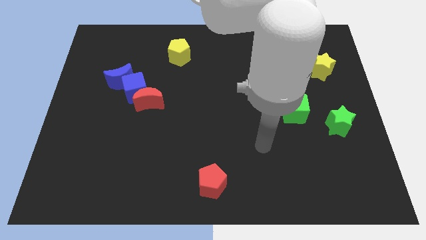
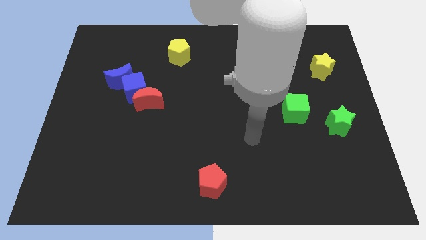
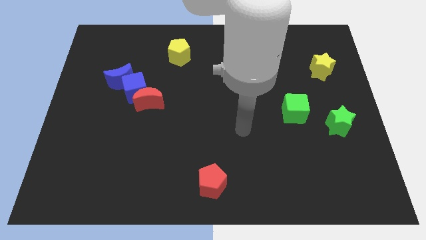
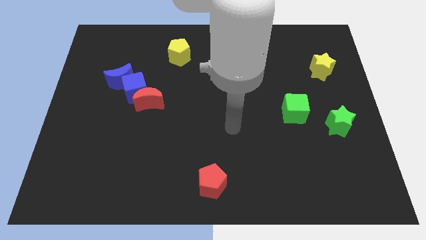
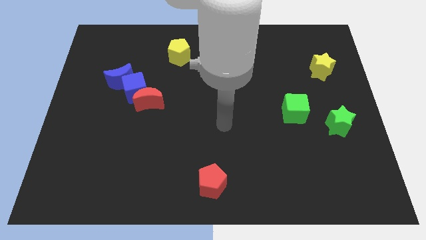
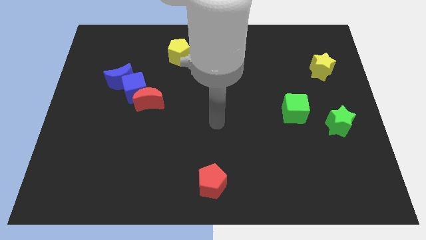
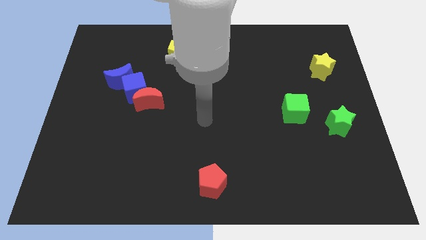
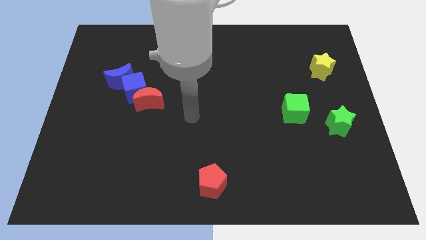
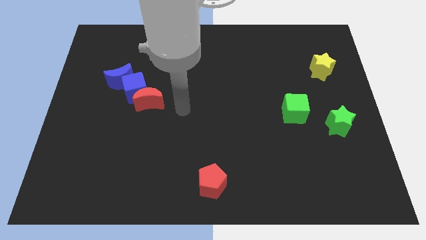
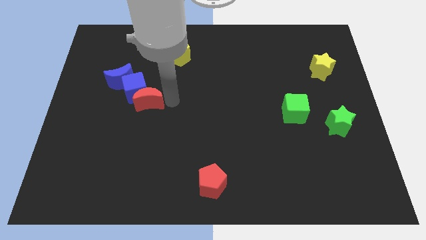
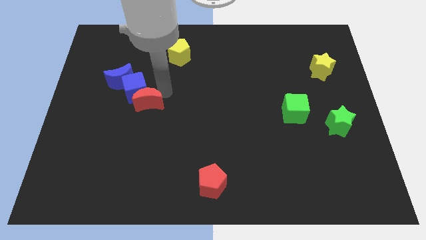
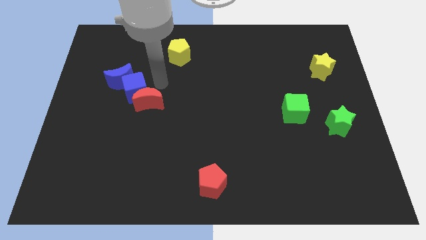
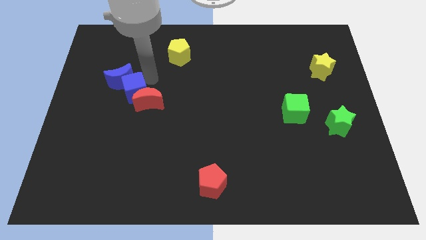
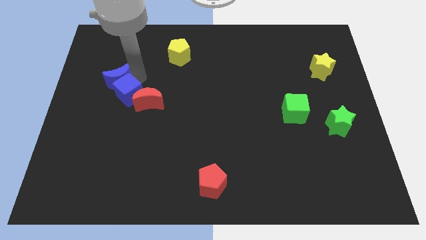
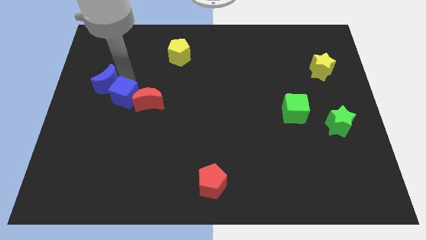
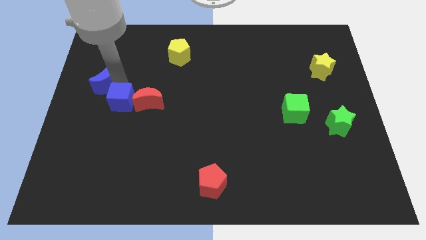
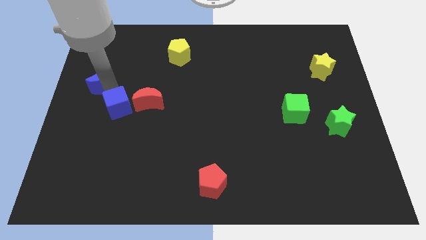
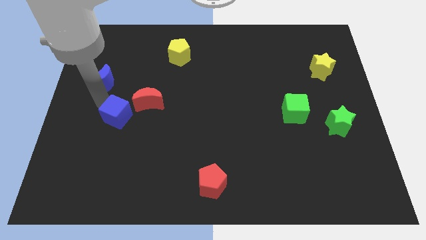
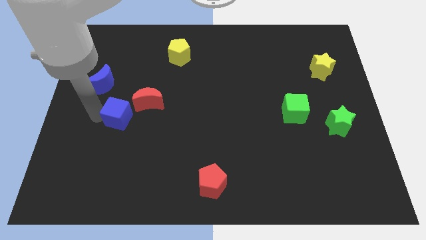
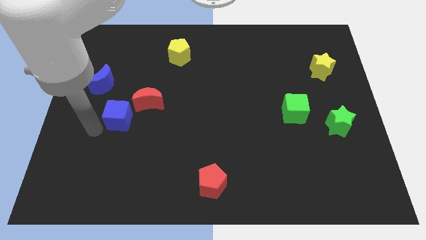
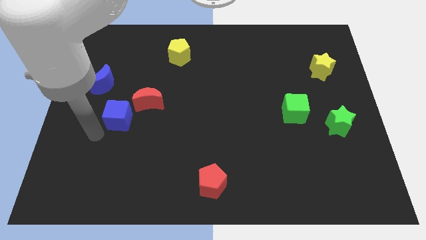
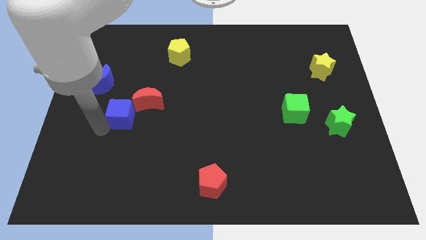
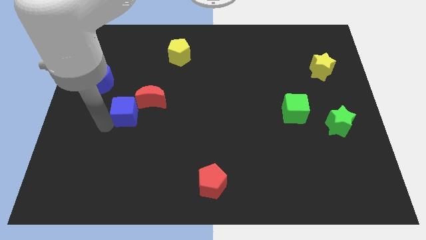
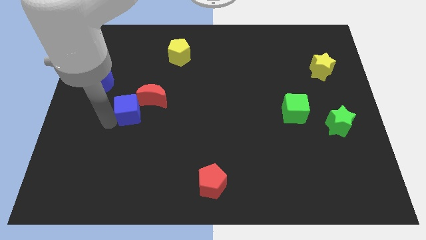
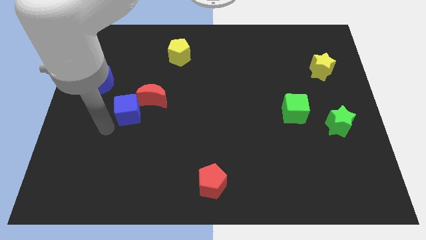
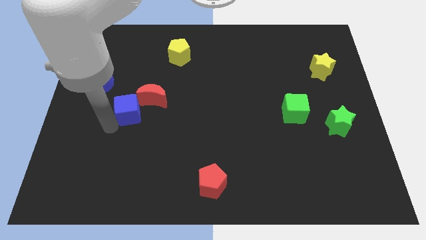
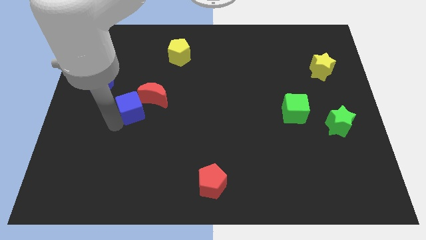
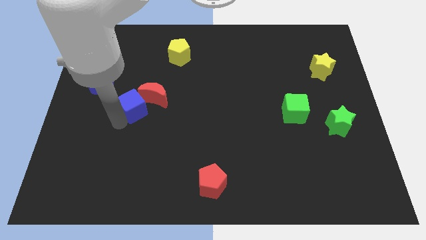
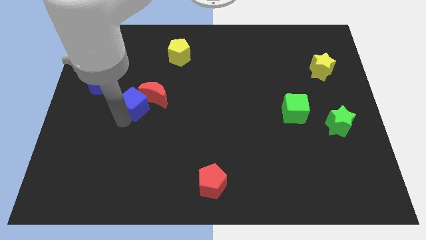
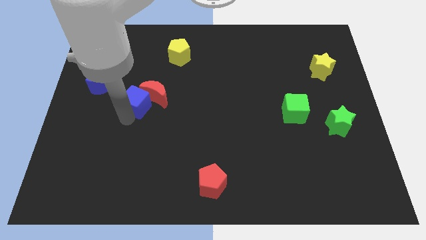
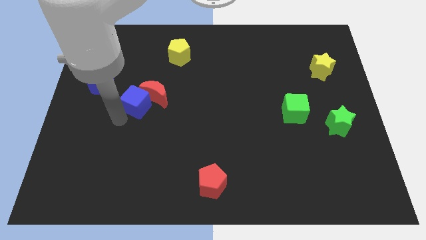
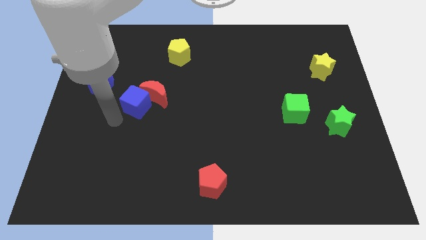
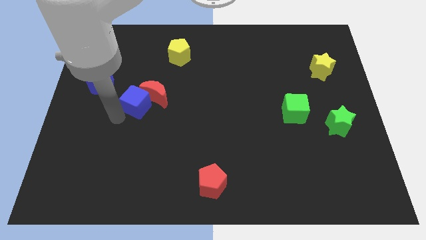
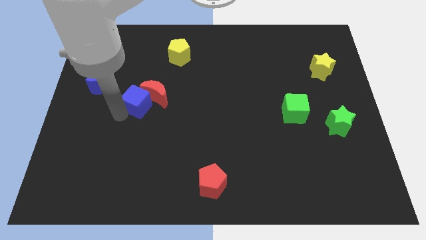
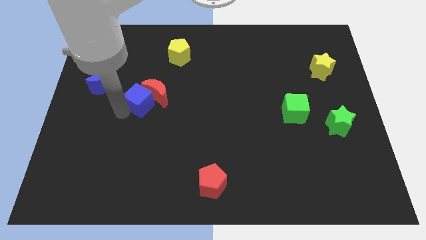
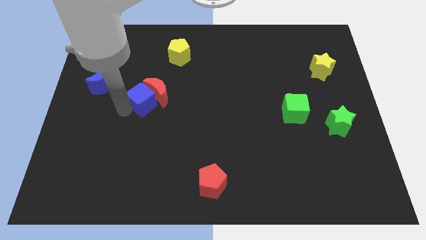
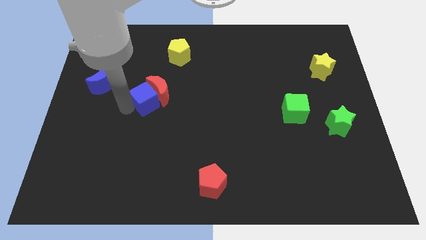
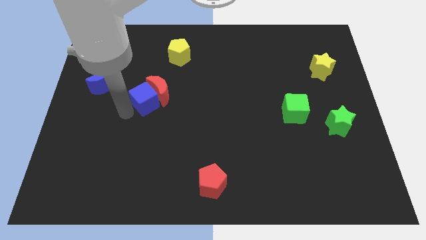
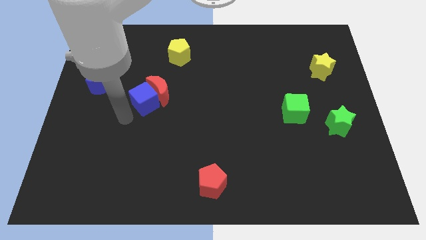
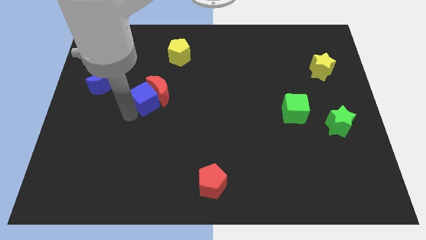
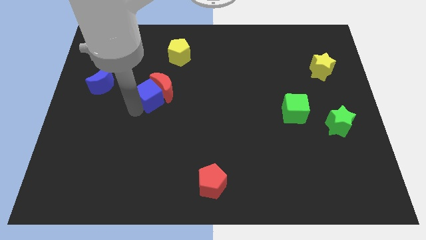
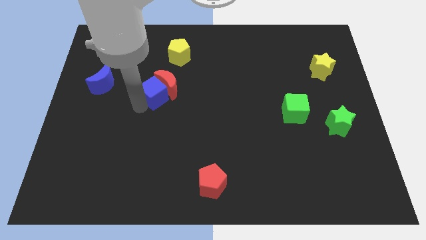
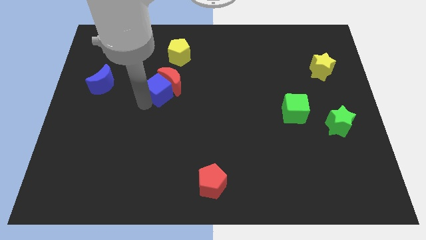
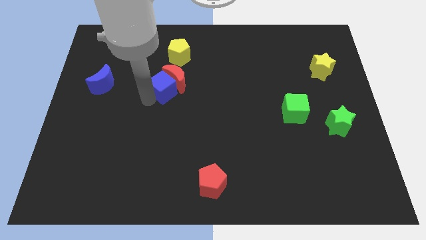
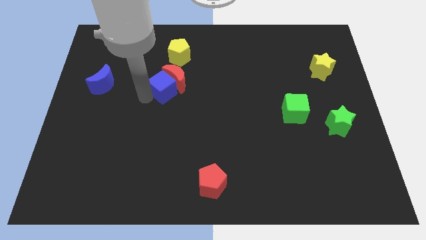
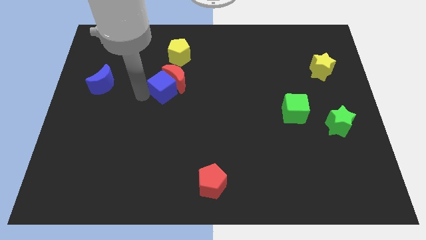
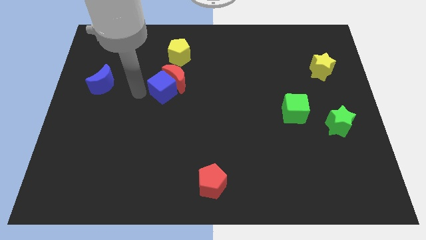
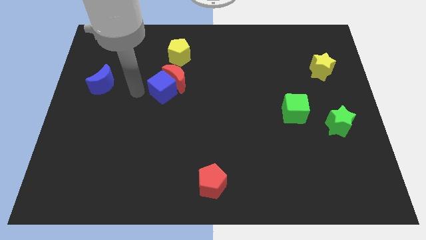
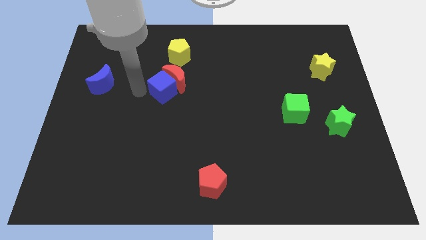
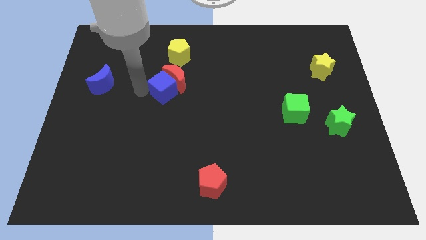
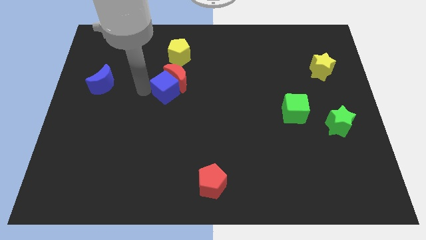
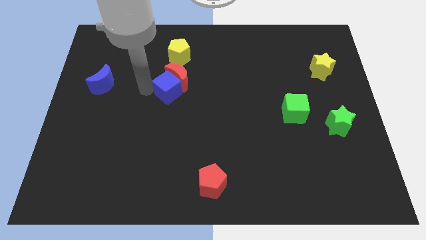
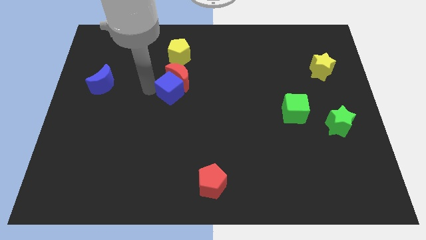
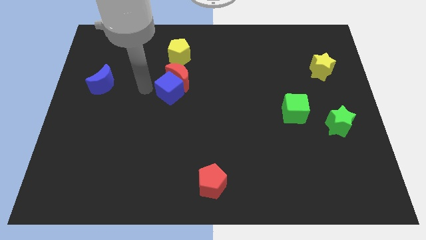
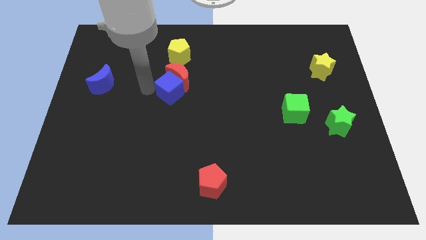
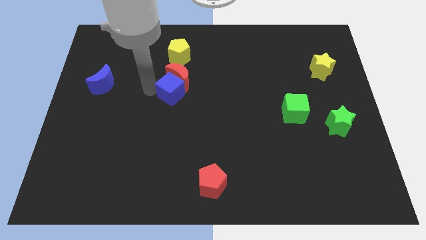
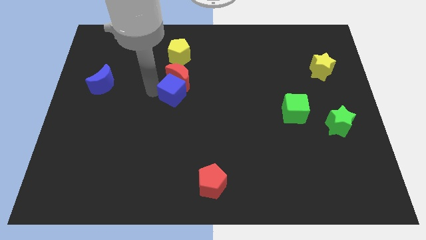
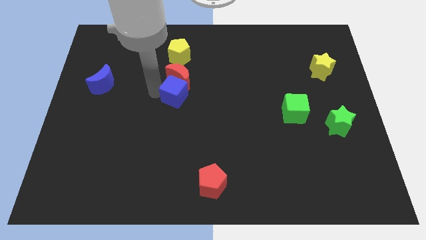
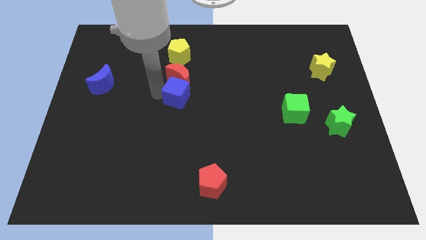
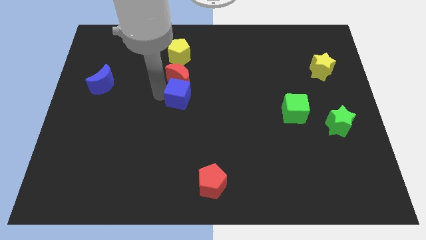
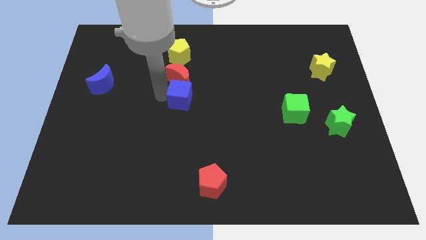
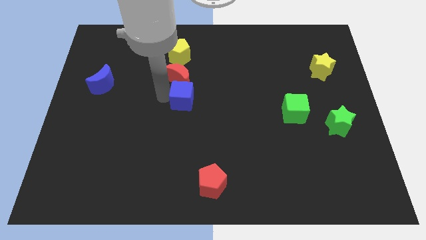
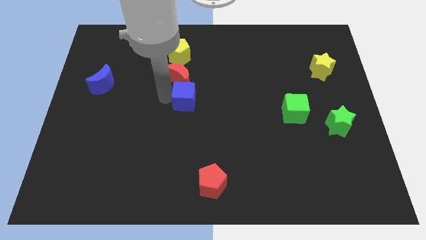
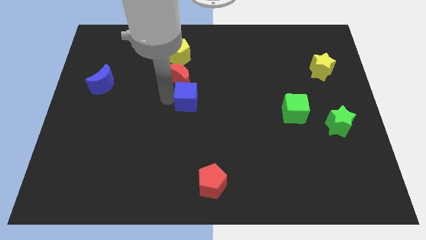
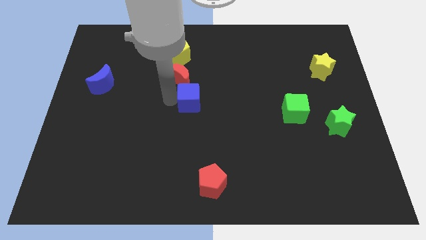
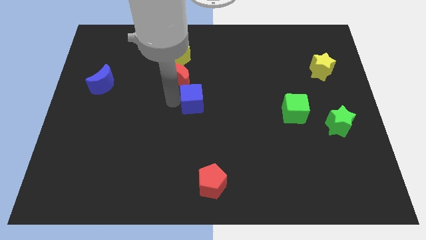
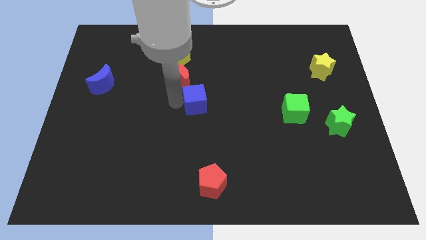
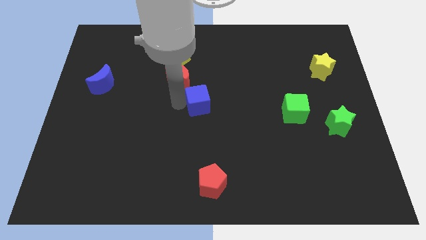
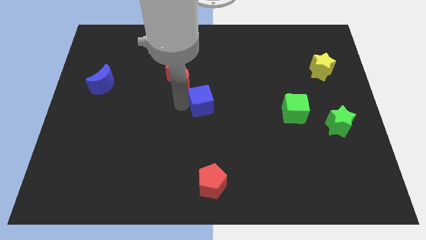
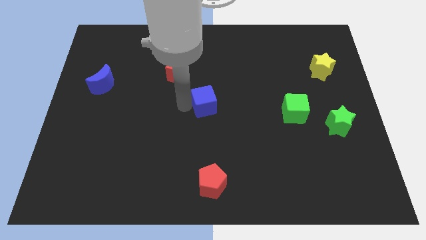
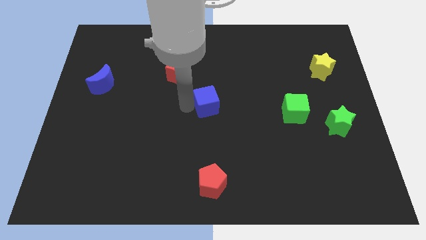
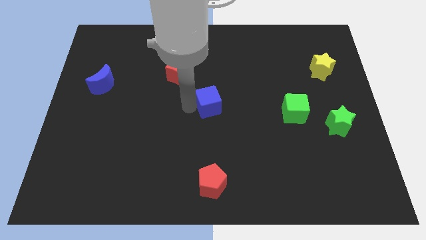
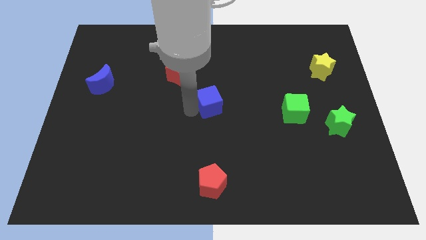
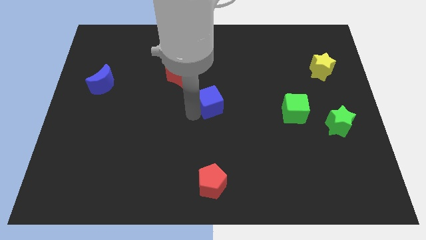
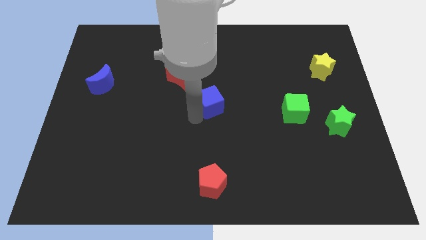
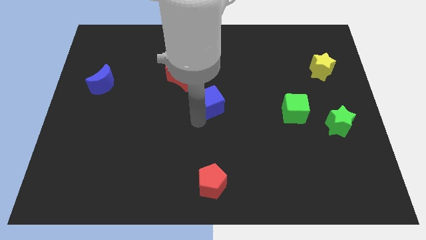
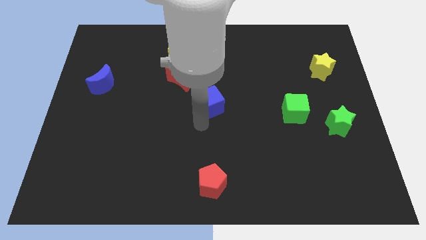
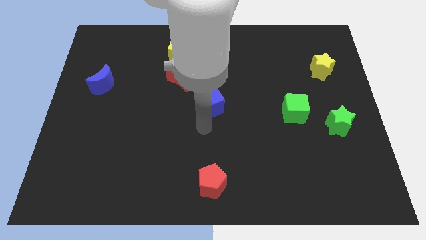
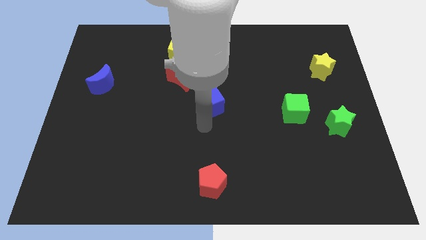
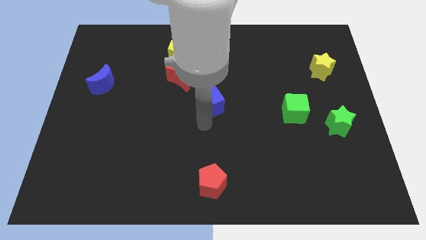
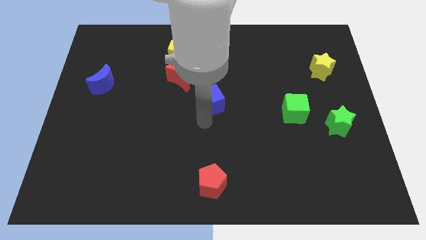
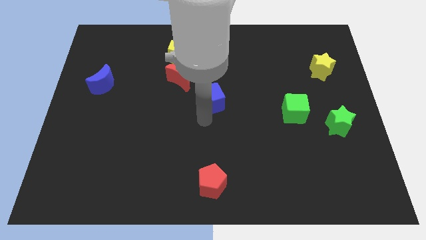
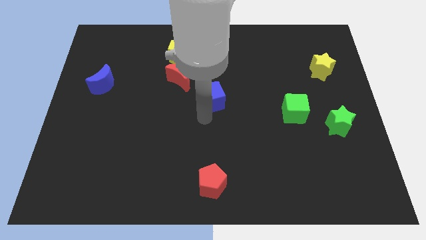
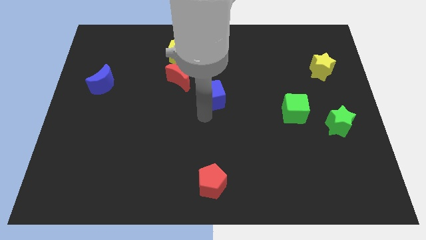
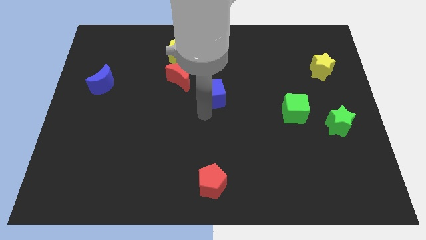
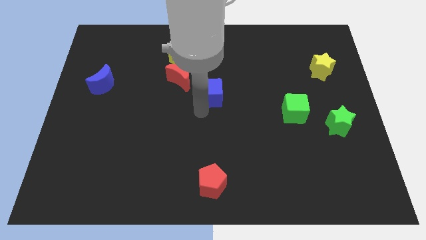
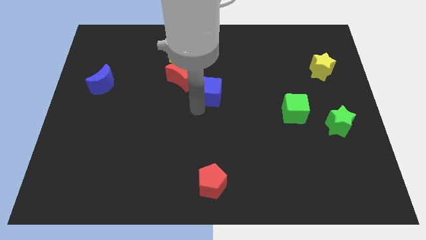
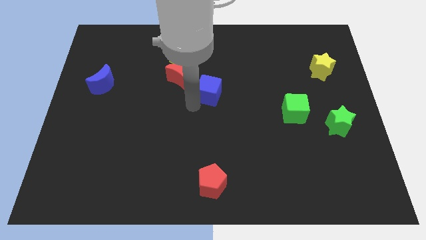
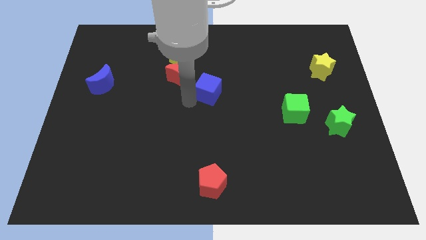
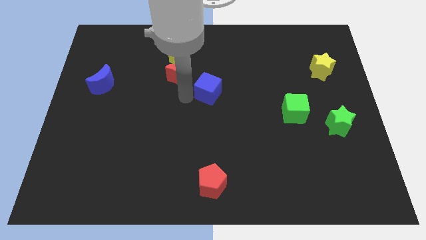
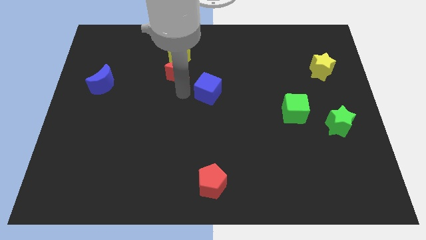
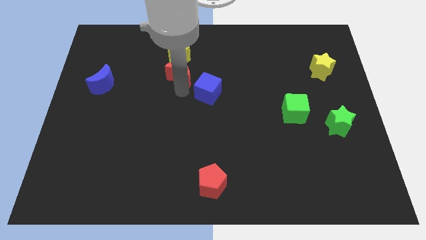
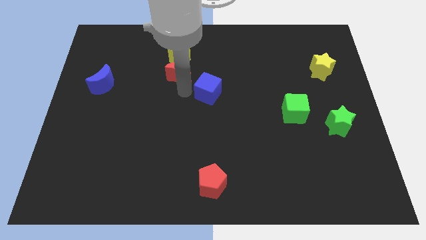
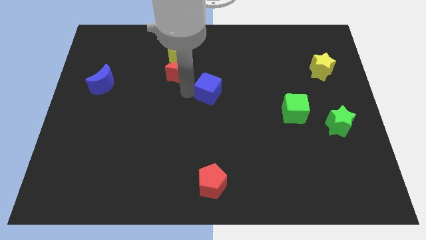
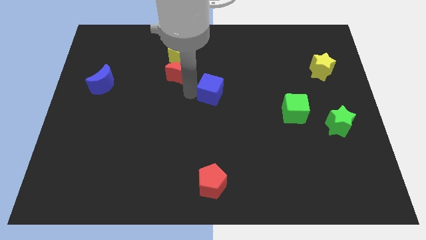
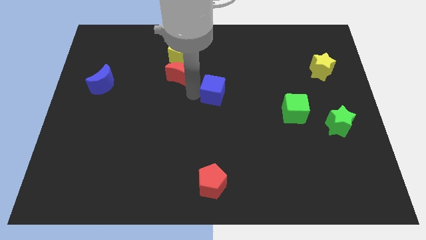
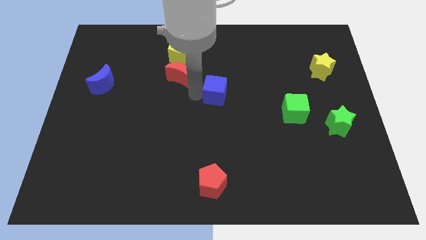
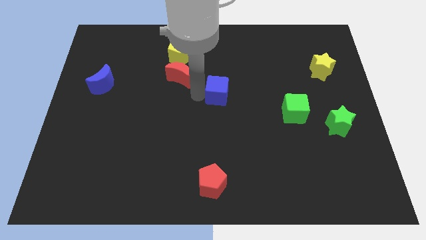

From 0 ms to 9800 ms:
push the blue cube to the right
